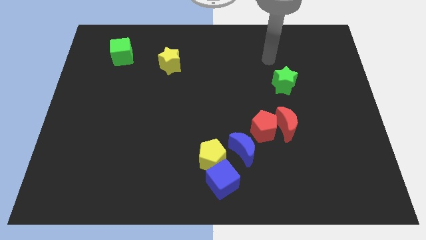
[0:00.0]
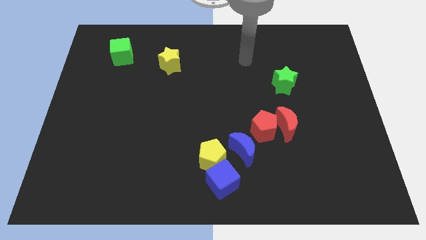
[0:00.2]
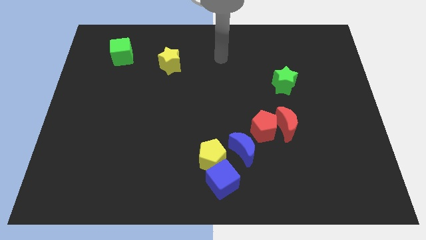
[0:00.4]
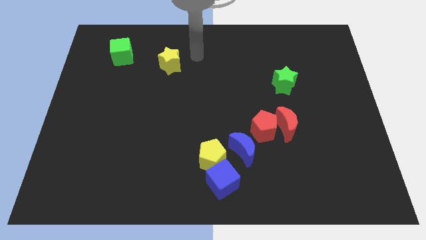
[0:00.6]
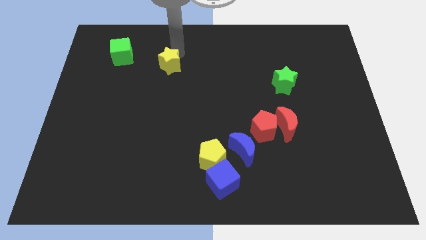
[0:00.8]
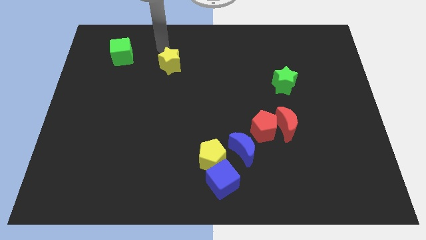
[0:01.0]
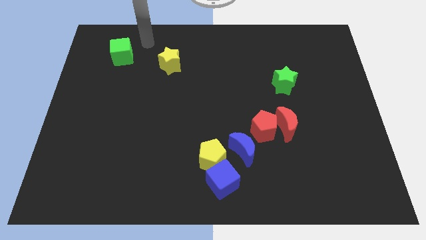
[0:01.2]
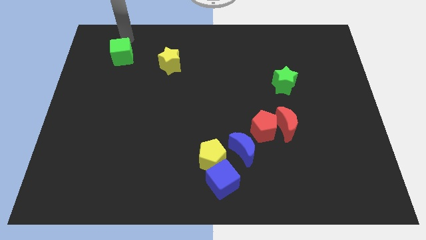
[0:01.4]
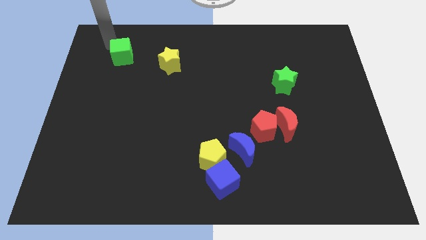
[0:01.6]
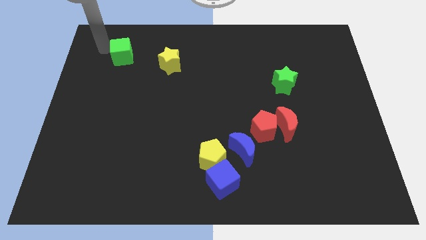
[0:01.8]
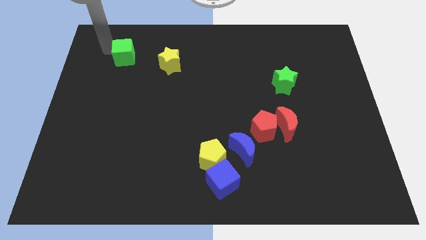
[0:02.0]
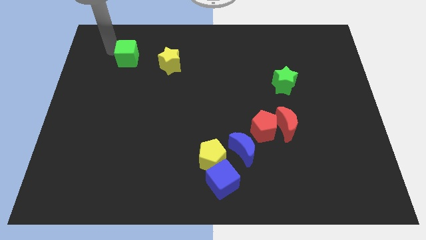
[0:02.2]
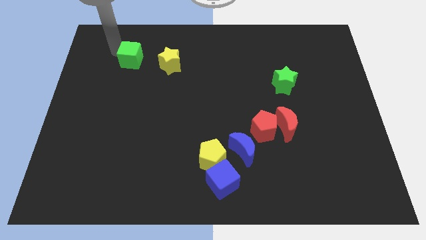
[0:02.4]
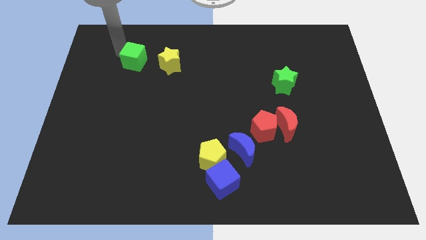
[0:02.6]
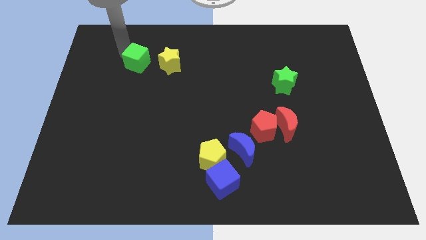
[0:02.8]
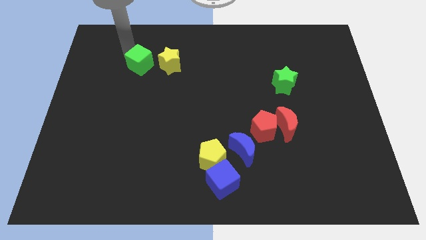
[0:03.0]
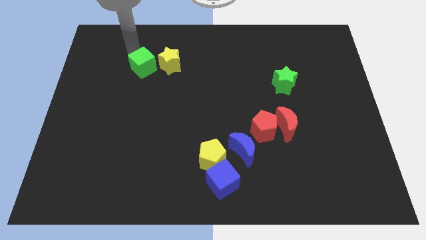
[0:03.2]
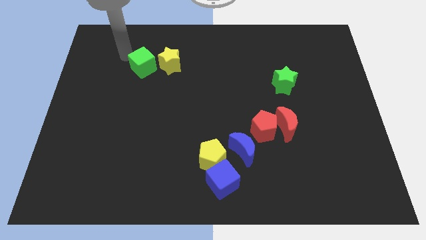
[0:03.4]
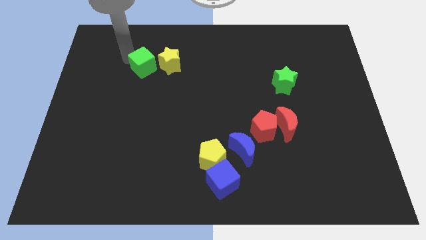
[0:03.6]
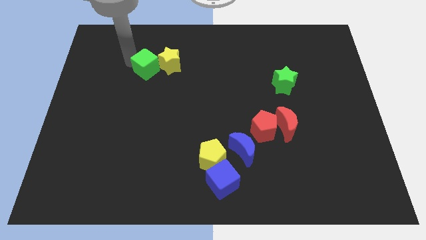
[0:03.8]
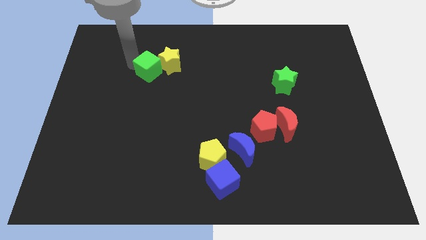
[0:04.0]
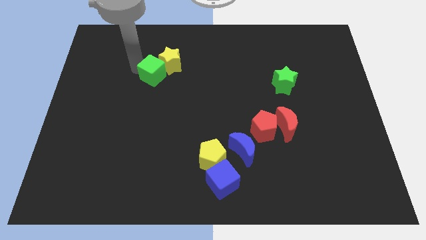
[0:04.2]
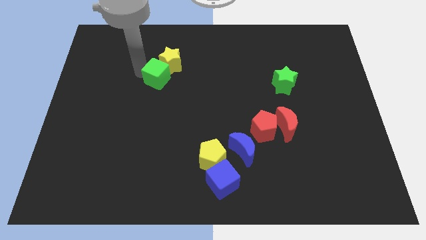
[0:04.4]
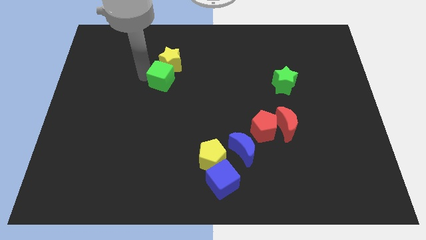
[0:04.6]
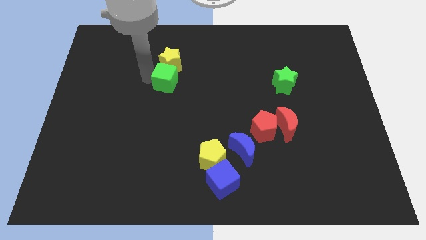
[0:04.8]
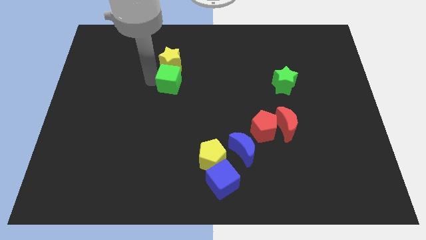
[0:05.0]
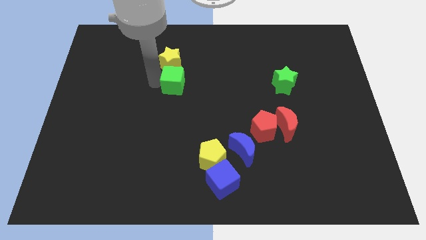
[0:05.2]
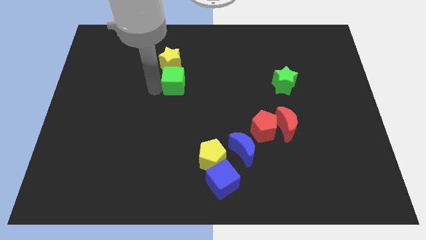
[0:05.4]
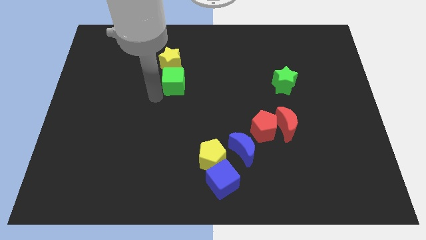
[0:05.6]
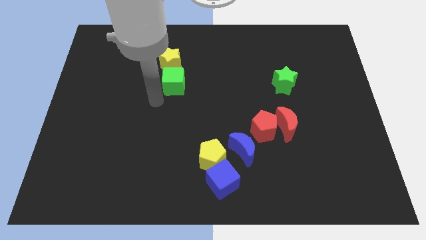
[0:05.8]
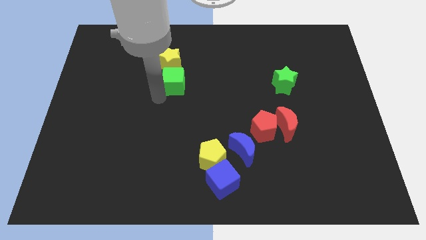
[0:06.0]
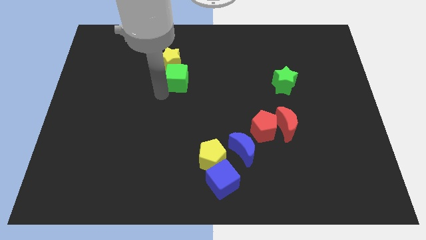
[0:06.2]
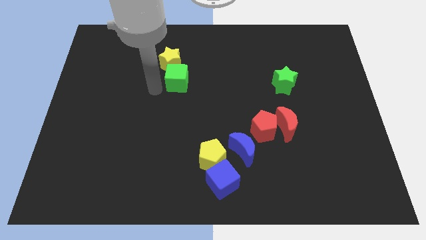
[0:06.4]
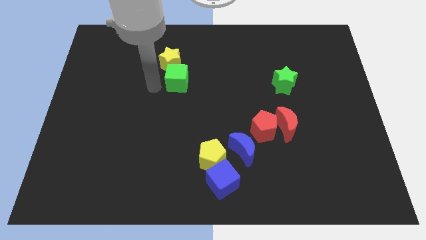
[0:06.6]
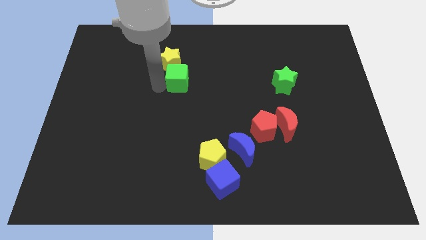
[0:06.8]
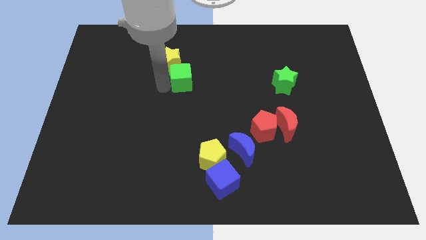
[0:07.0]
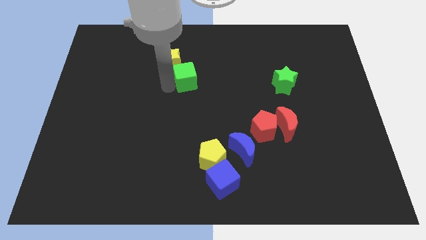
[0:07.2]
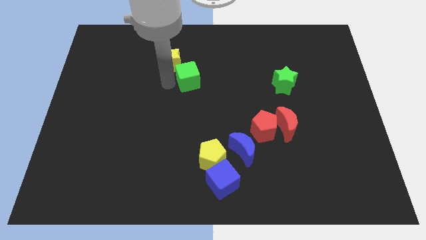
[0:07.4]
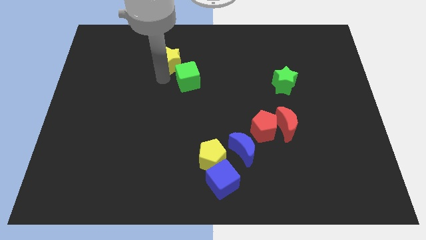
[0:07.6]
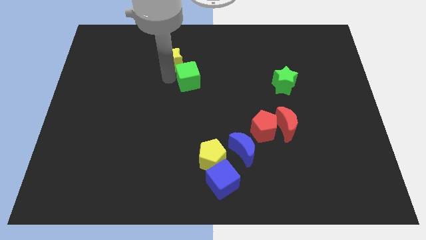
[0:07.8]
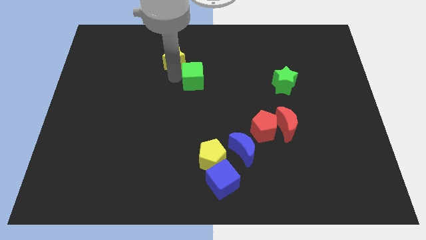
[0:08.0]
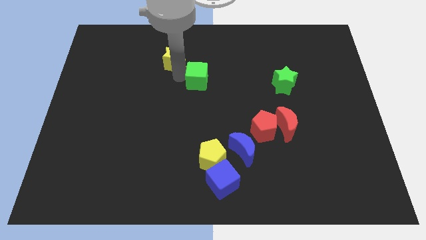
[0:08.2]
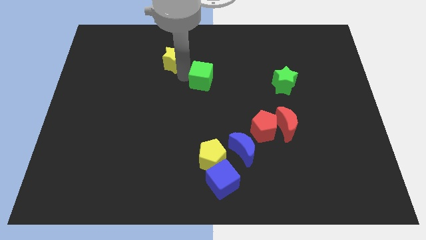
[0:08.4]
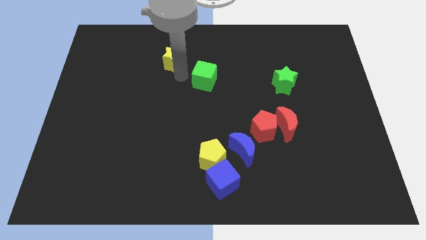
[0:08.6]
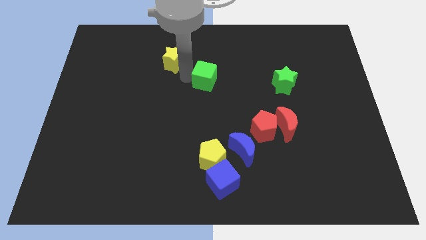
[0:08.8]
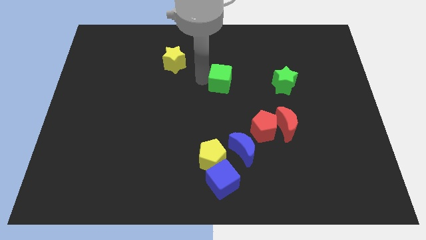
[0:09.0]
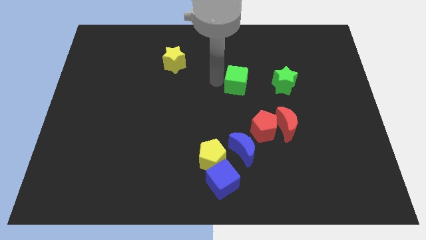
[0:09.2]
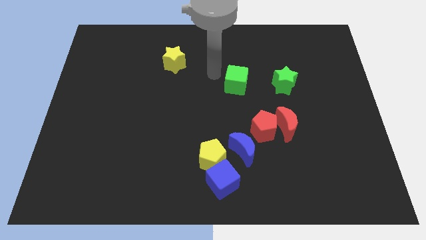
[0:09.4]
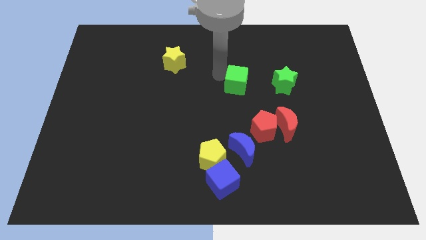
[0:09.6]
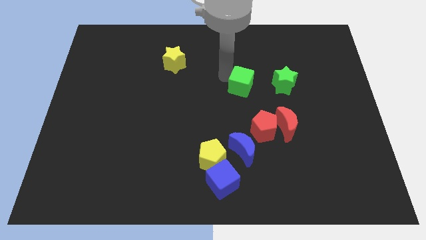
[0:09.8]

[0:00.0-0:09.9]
slide the green cube to the top of the red pentagon

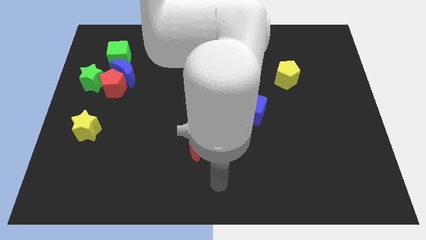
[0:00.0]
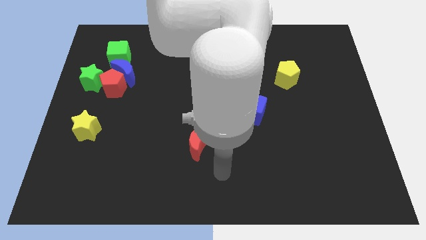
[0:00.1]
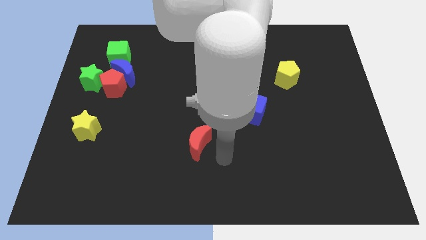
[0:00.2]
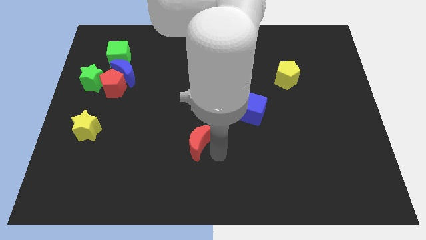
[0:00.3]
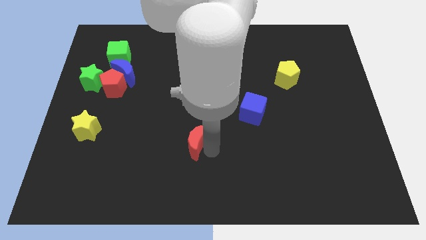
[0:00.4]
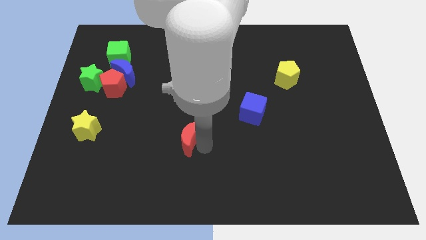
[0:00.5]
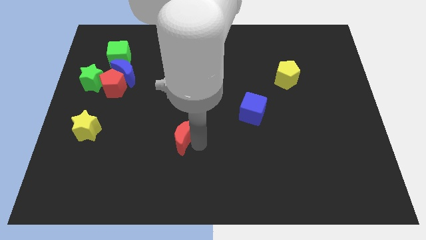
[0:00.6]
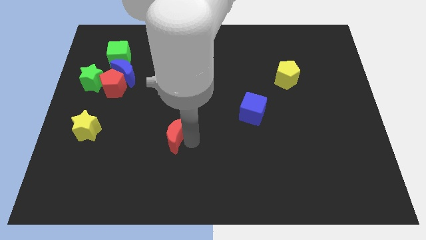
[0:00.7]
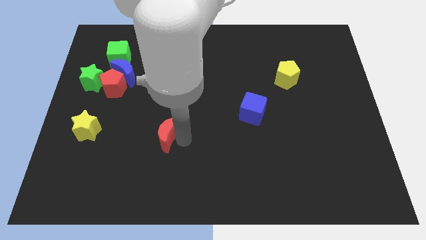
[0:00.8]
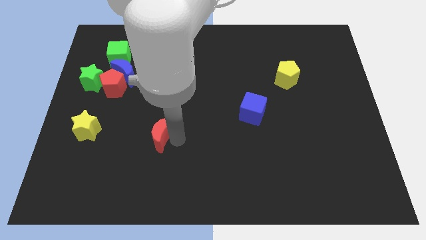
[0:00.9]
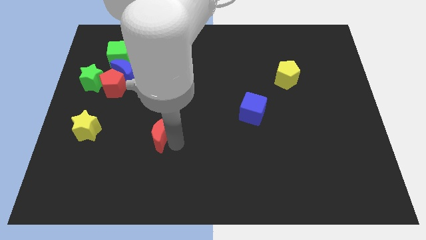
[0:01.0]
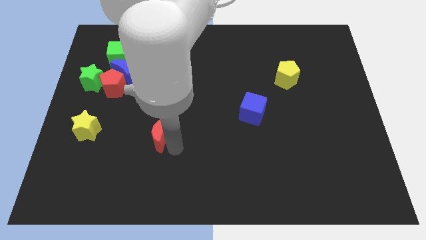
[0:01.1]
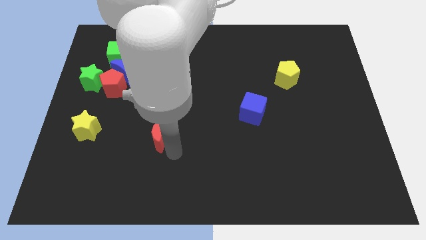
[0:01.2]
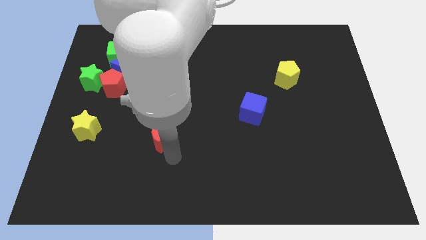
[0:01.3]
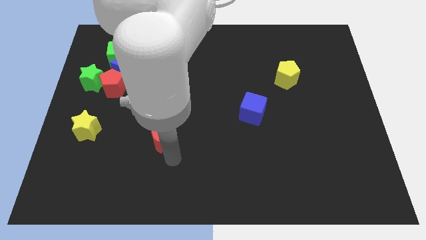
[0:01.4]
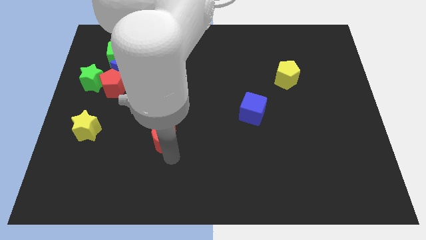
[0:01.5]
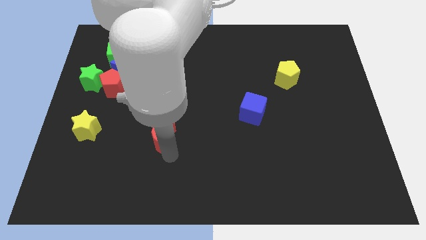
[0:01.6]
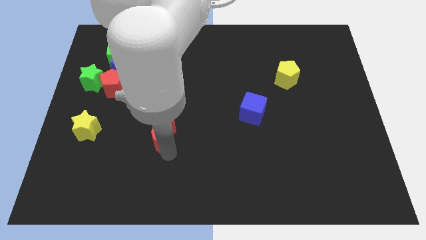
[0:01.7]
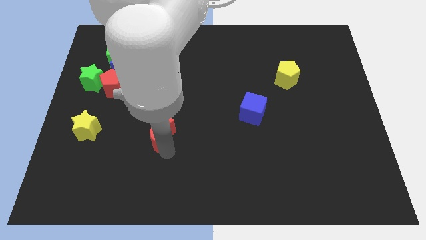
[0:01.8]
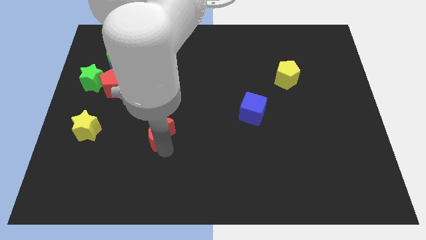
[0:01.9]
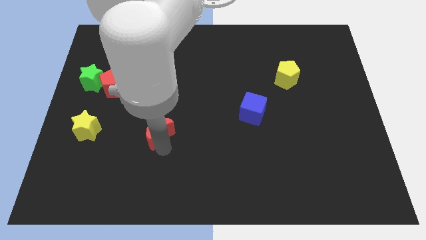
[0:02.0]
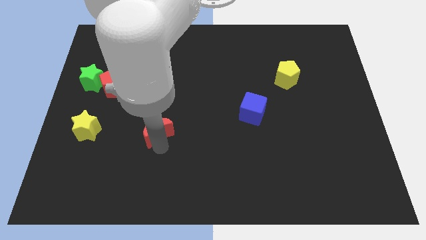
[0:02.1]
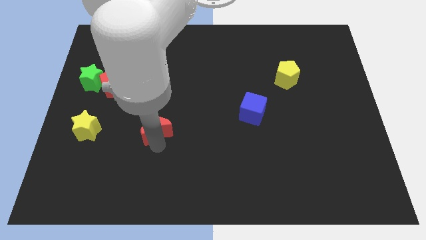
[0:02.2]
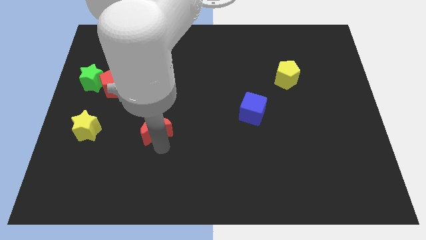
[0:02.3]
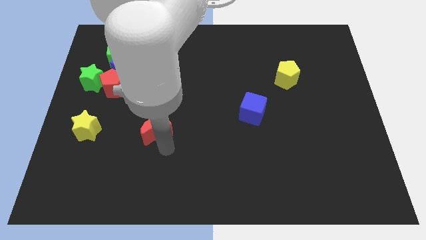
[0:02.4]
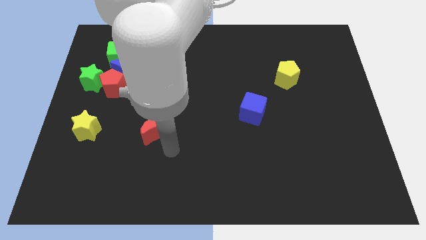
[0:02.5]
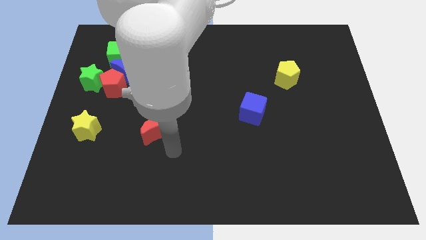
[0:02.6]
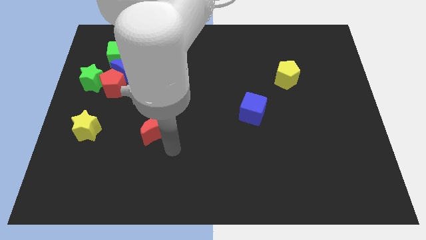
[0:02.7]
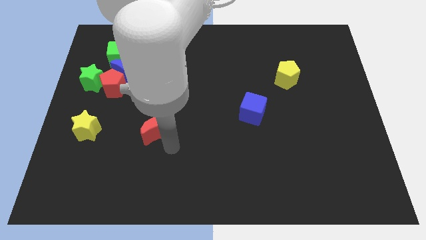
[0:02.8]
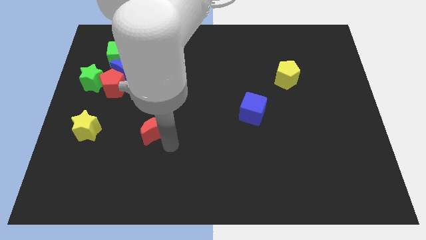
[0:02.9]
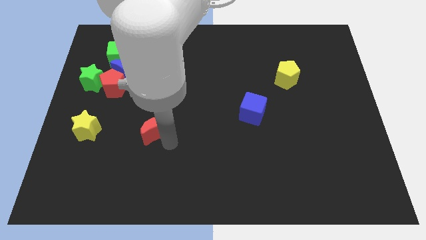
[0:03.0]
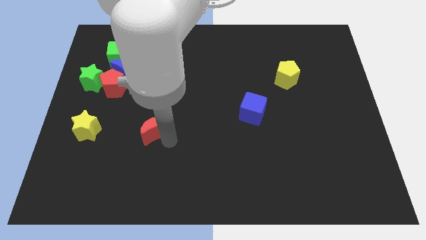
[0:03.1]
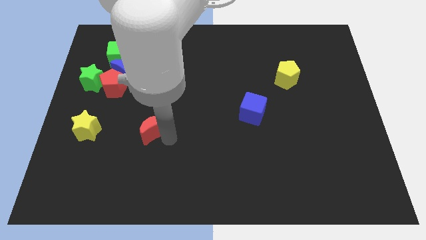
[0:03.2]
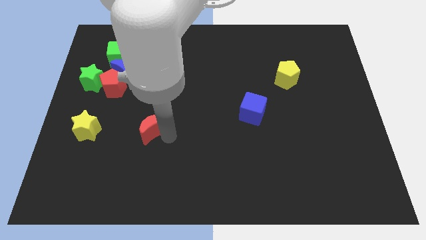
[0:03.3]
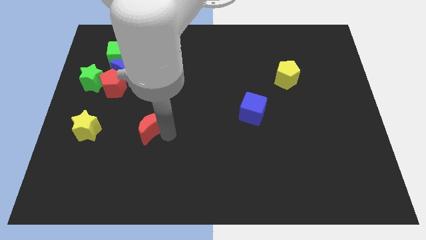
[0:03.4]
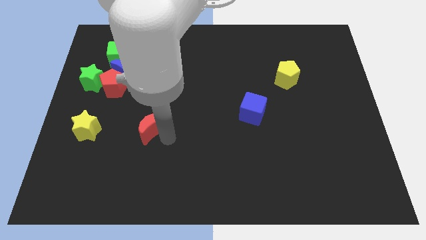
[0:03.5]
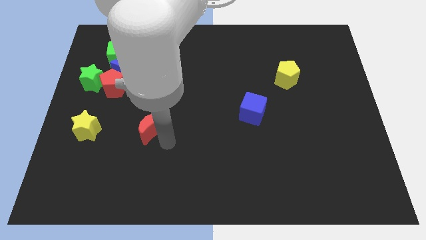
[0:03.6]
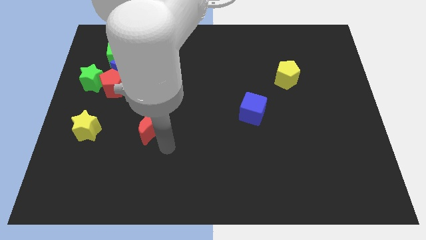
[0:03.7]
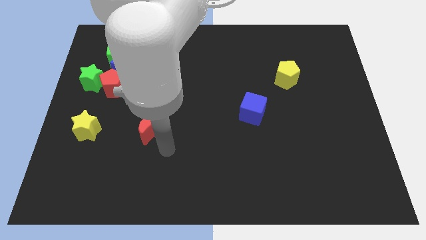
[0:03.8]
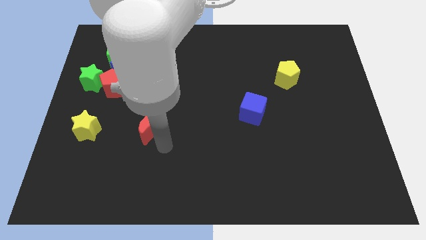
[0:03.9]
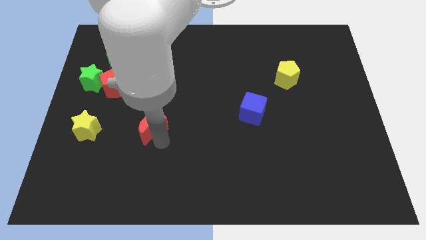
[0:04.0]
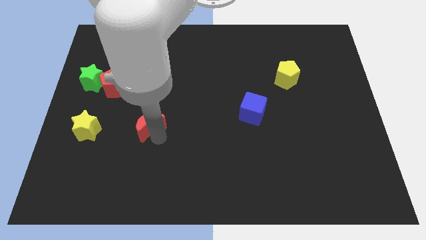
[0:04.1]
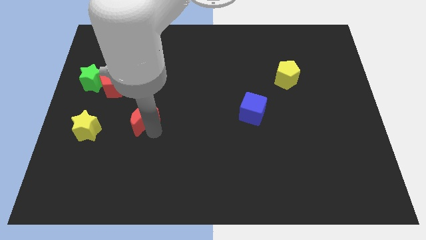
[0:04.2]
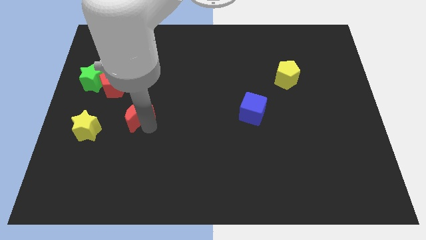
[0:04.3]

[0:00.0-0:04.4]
move the red moon to the bottom right side of the red pentagon
